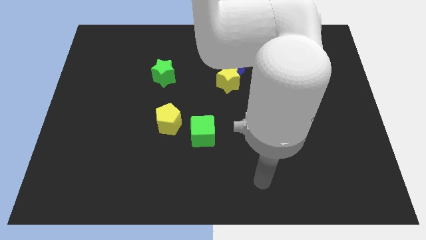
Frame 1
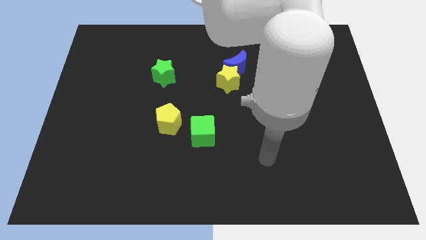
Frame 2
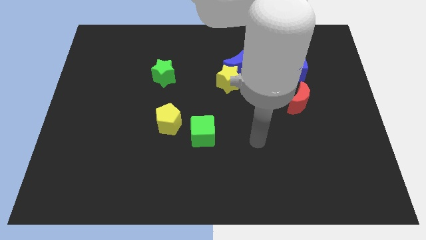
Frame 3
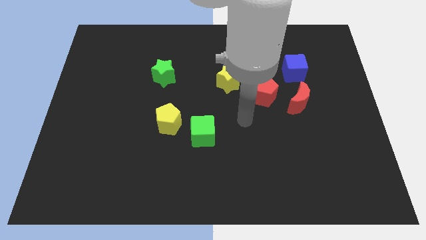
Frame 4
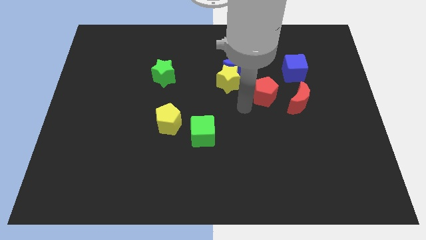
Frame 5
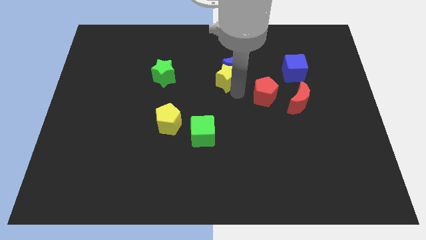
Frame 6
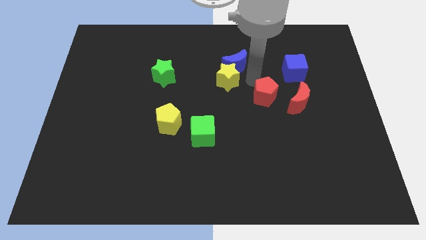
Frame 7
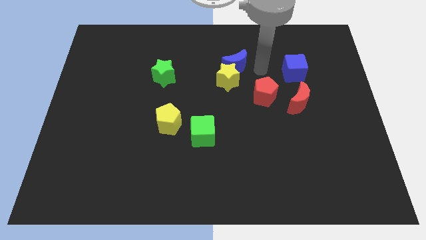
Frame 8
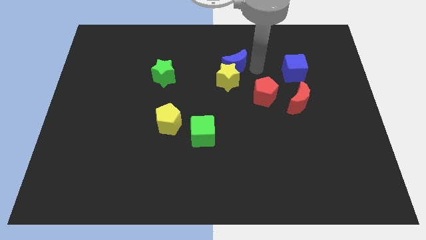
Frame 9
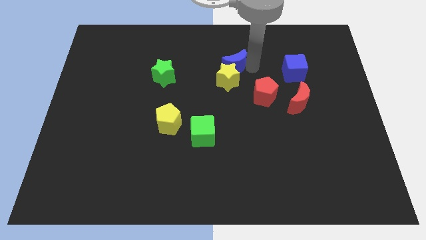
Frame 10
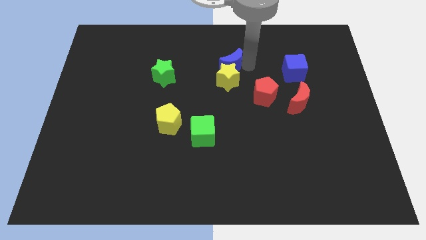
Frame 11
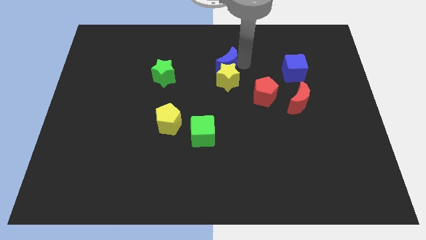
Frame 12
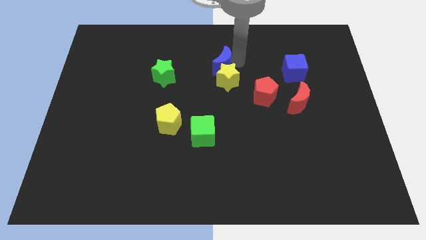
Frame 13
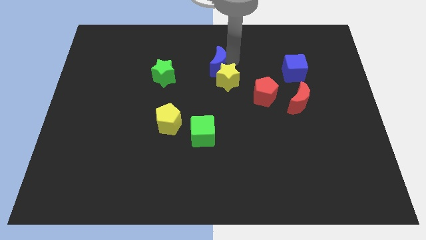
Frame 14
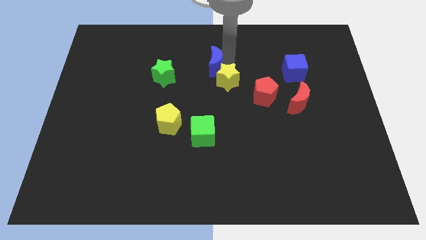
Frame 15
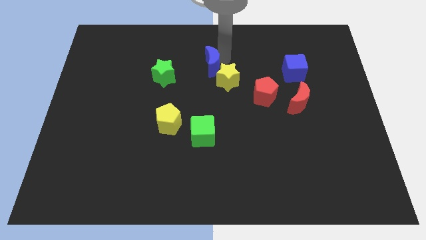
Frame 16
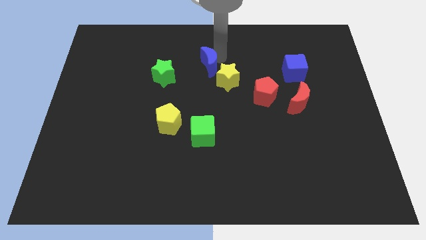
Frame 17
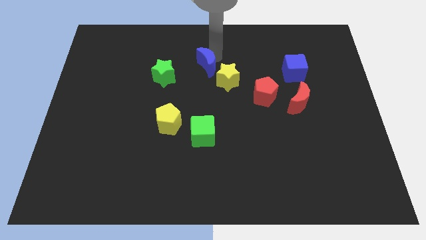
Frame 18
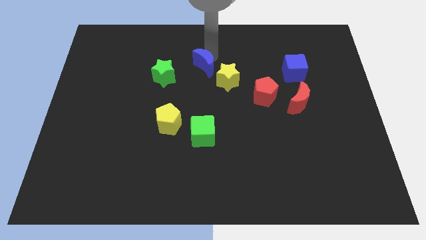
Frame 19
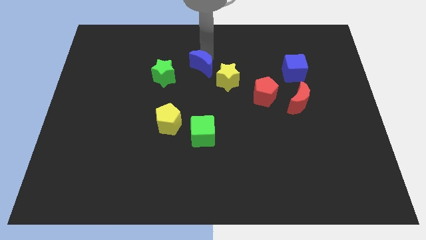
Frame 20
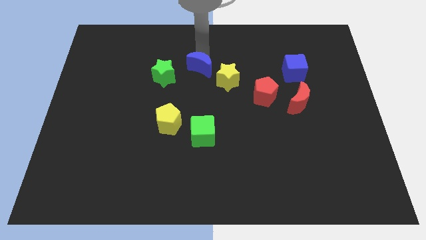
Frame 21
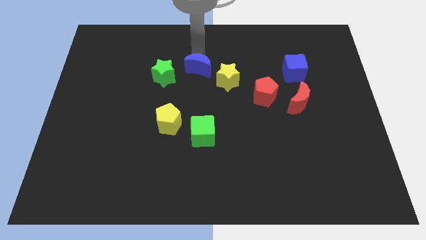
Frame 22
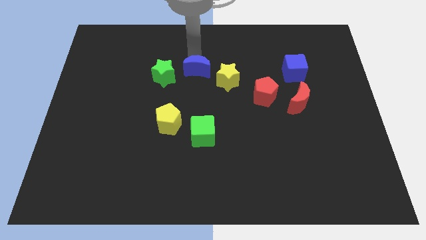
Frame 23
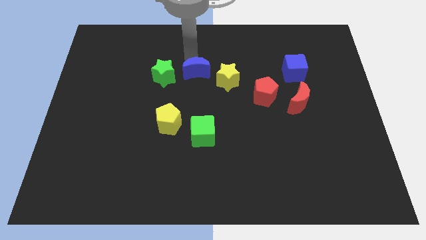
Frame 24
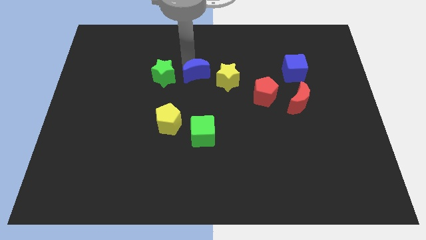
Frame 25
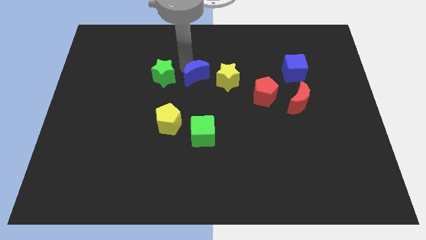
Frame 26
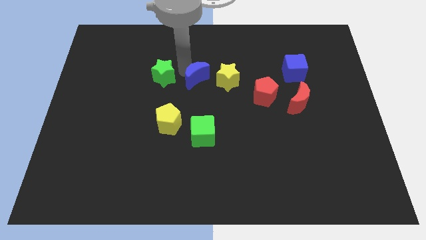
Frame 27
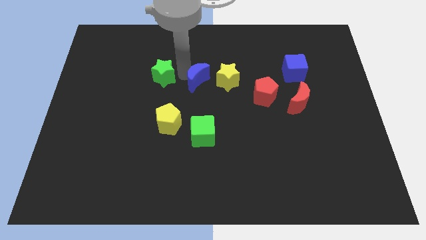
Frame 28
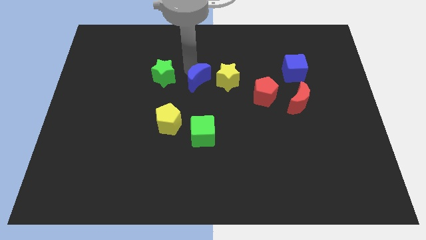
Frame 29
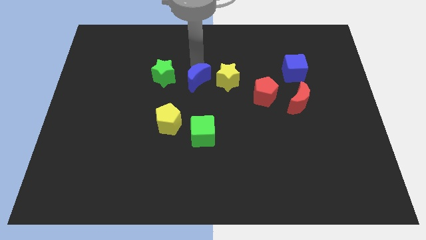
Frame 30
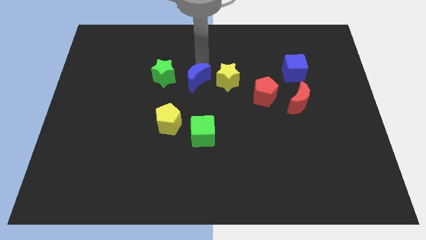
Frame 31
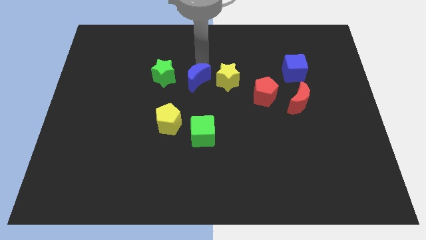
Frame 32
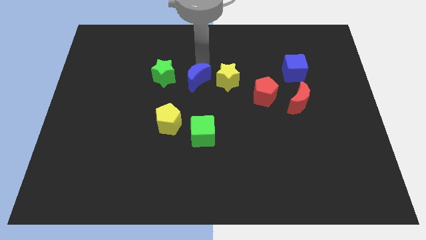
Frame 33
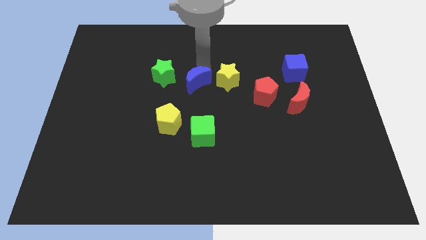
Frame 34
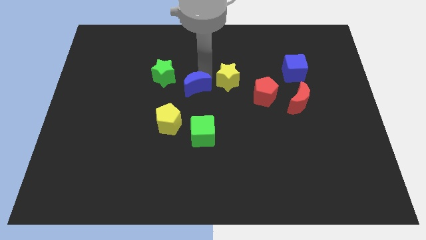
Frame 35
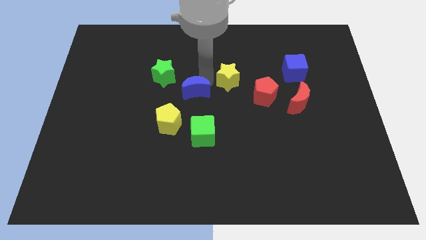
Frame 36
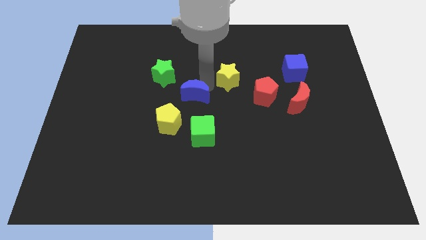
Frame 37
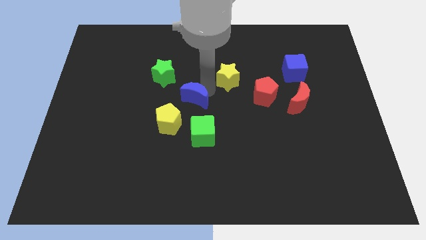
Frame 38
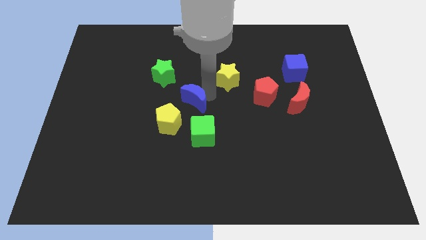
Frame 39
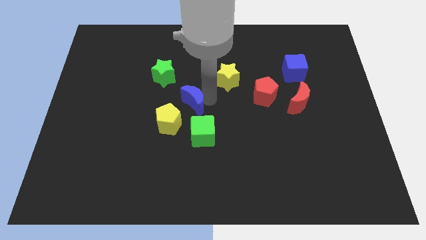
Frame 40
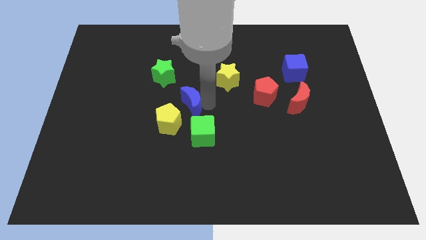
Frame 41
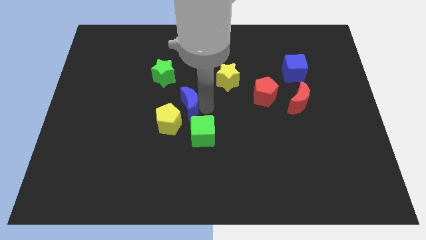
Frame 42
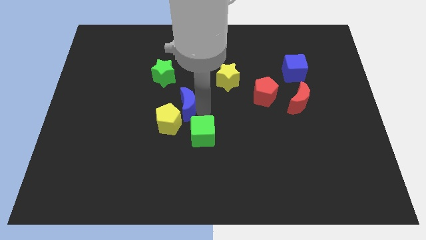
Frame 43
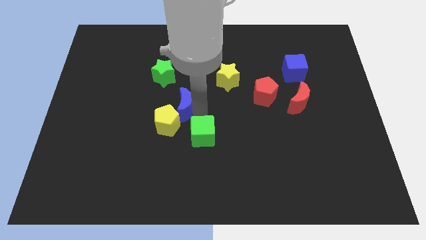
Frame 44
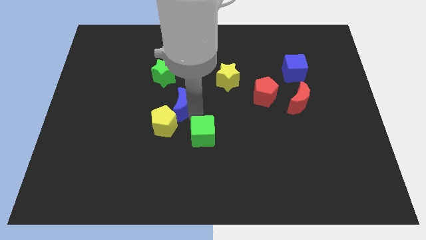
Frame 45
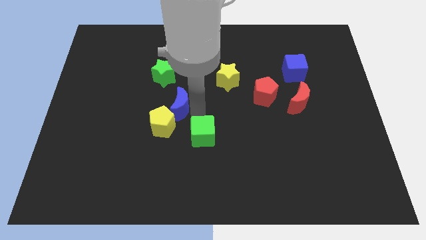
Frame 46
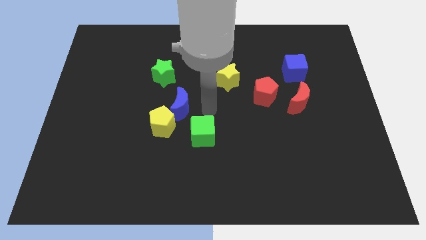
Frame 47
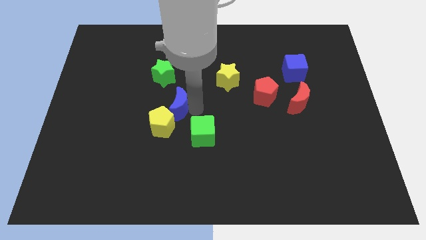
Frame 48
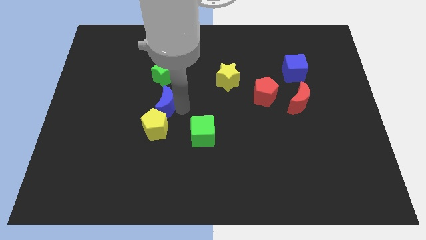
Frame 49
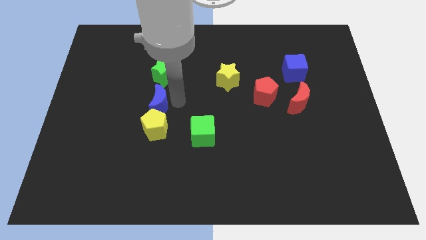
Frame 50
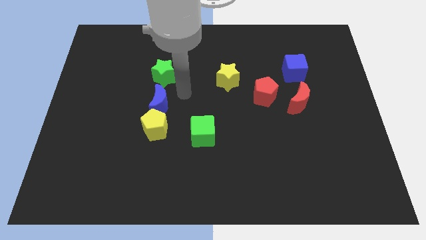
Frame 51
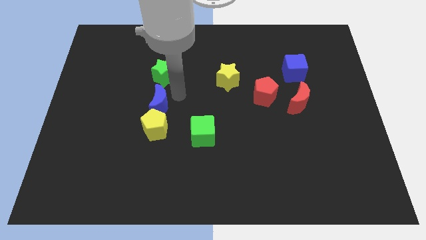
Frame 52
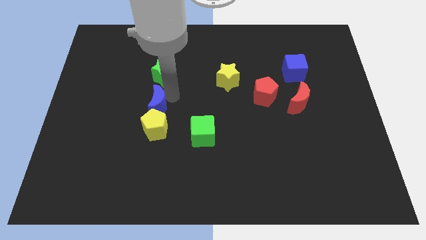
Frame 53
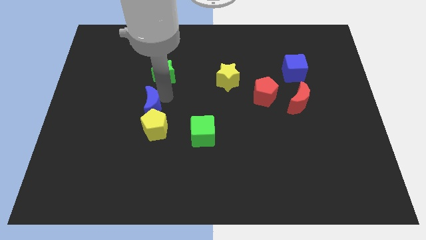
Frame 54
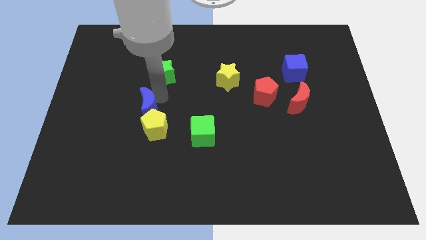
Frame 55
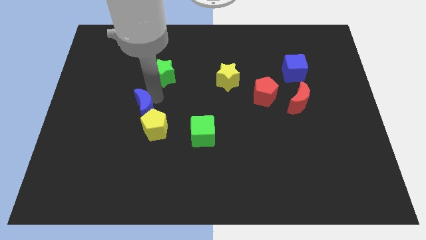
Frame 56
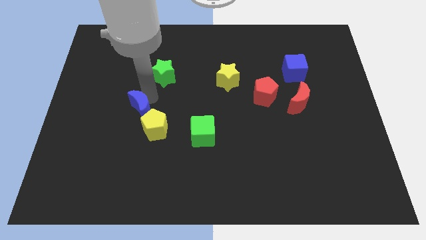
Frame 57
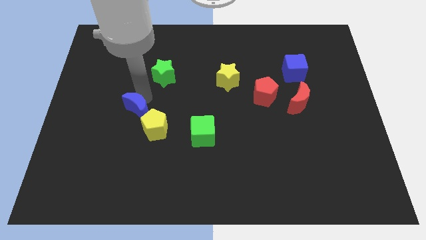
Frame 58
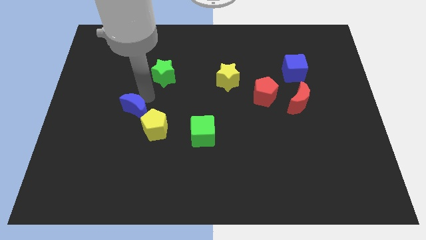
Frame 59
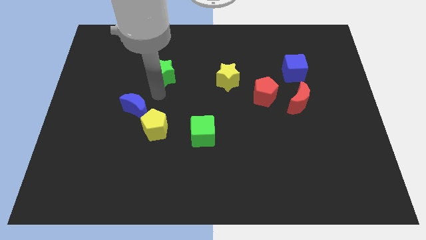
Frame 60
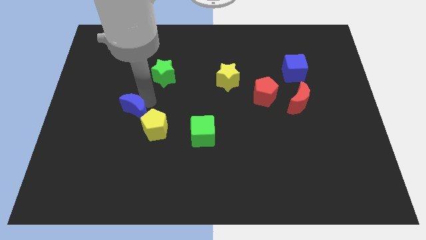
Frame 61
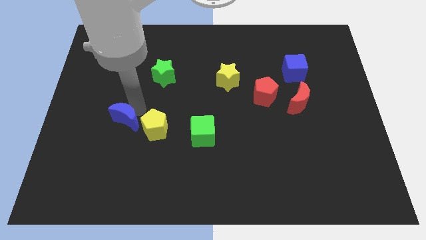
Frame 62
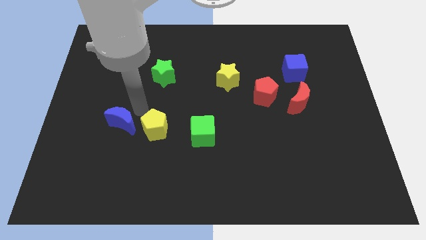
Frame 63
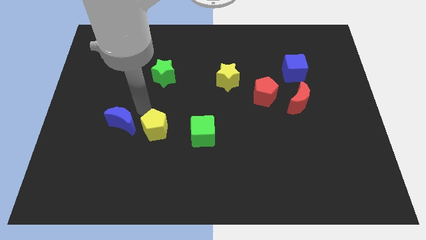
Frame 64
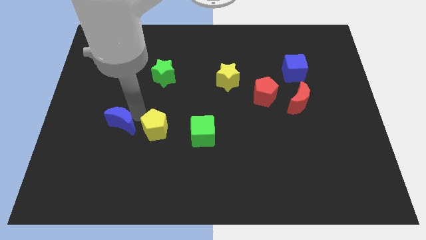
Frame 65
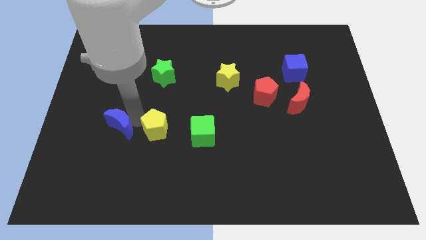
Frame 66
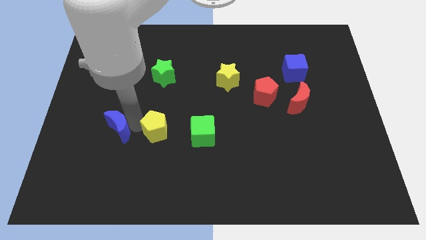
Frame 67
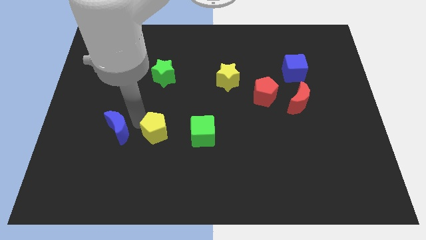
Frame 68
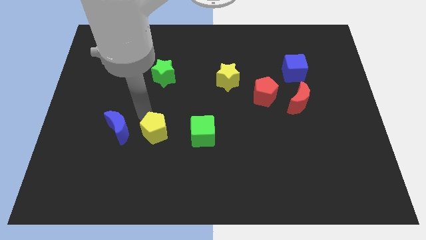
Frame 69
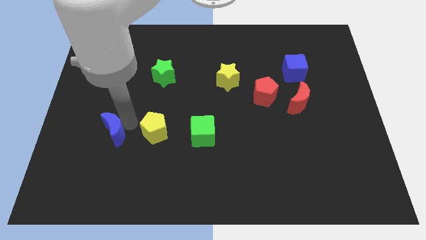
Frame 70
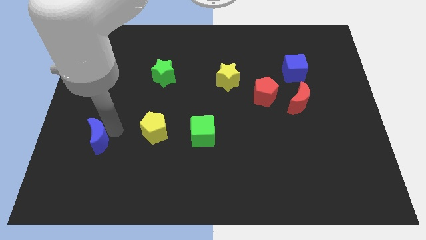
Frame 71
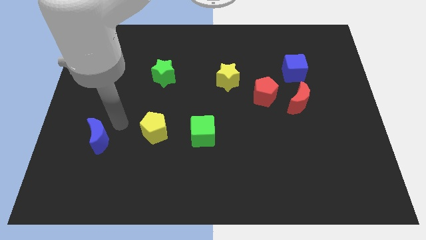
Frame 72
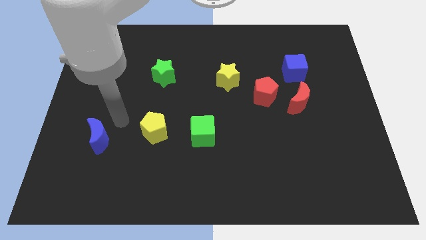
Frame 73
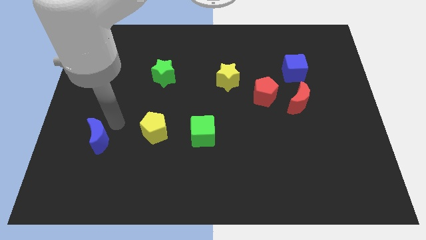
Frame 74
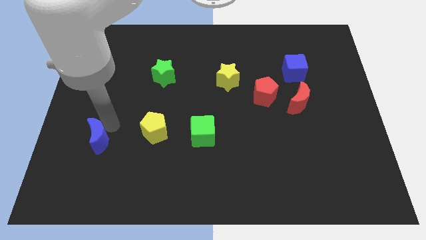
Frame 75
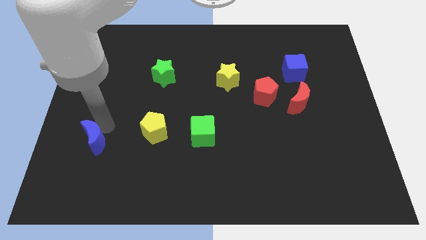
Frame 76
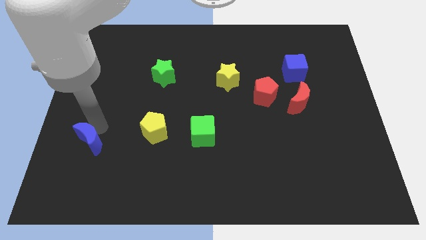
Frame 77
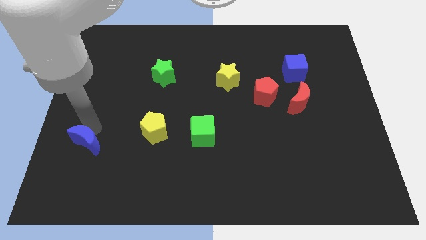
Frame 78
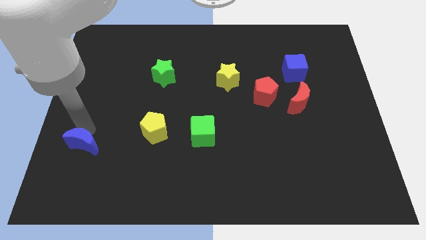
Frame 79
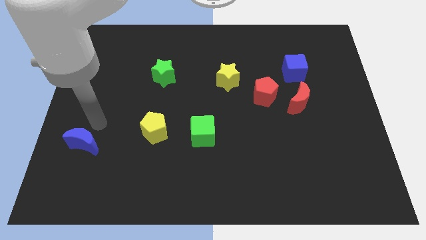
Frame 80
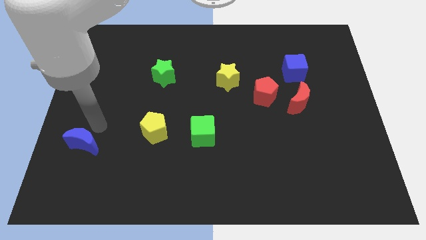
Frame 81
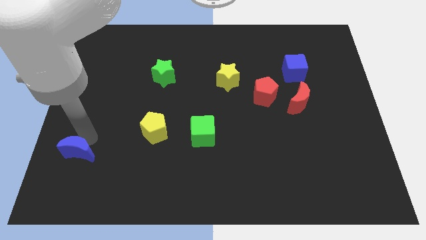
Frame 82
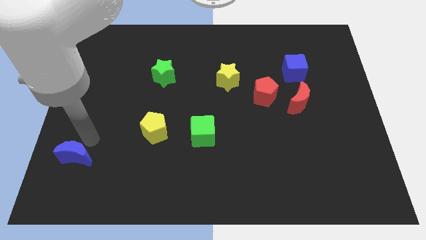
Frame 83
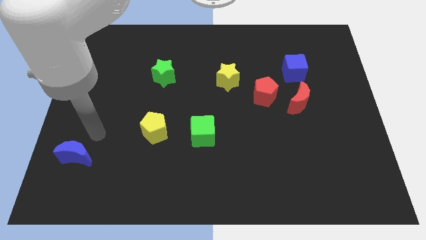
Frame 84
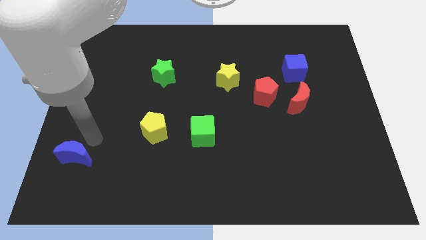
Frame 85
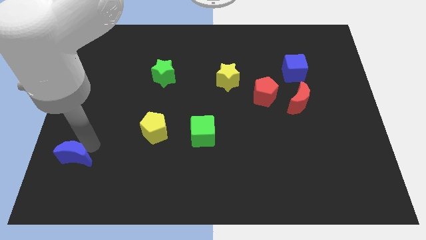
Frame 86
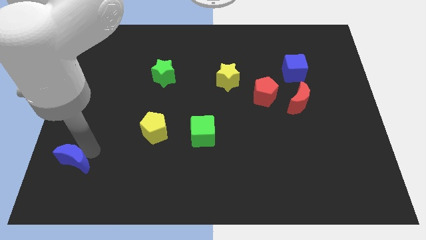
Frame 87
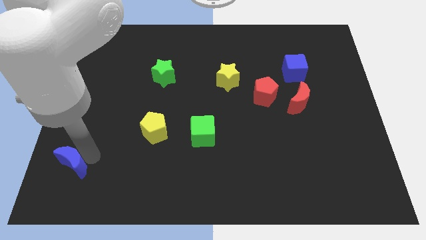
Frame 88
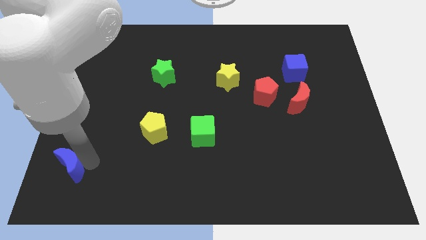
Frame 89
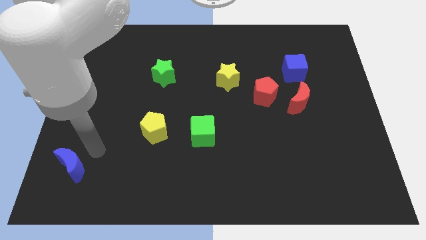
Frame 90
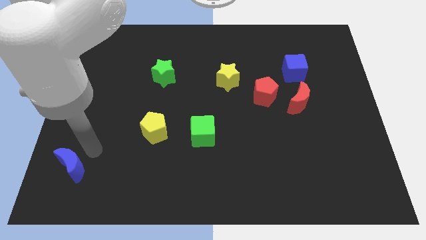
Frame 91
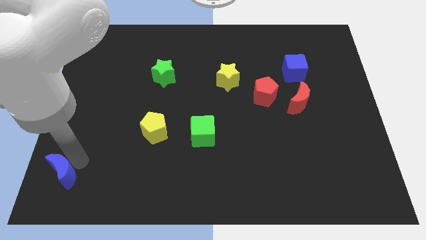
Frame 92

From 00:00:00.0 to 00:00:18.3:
put the blue moon to the bottom left corner
